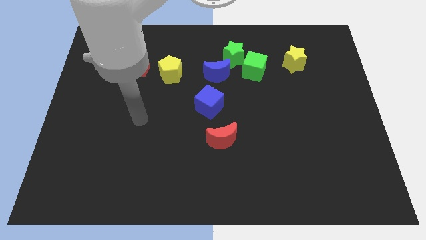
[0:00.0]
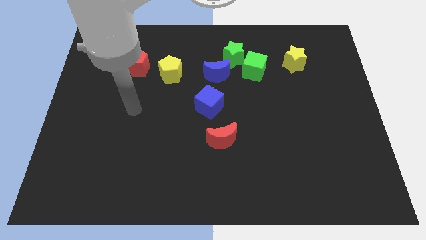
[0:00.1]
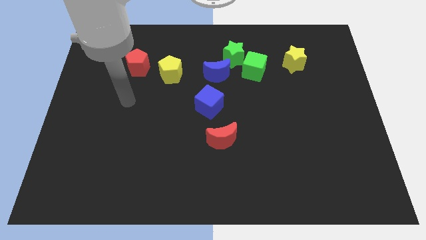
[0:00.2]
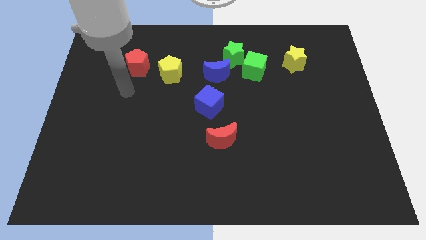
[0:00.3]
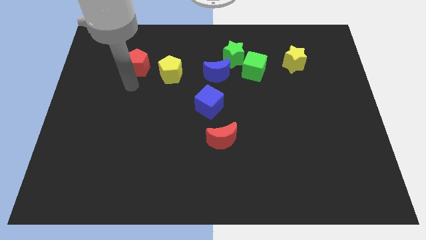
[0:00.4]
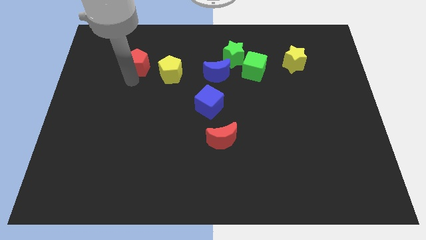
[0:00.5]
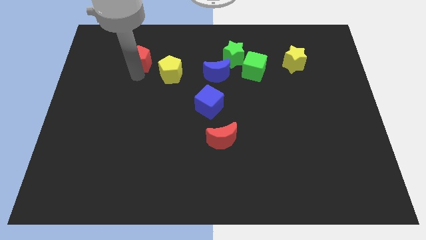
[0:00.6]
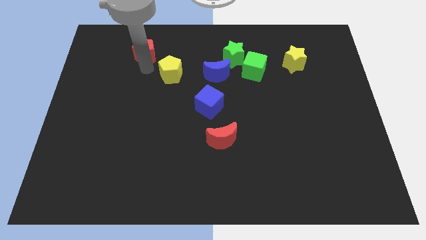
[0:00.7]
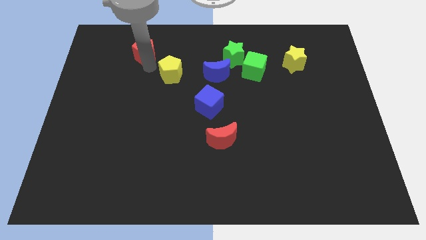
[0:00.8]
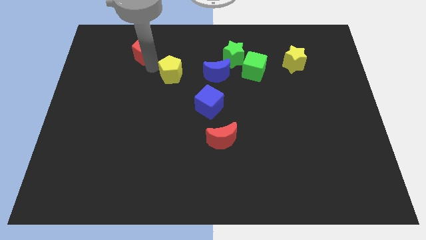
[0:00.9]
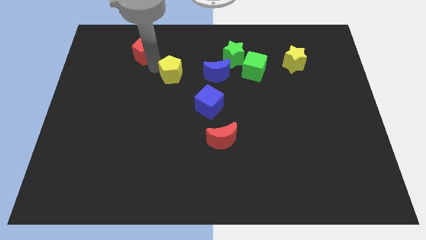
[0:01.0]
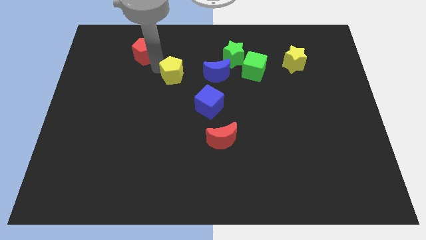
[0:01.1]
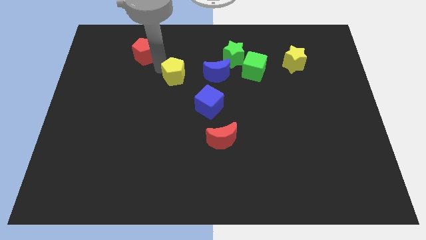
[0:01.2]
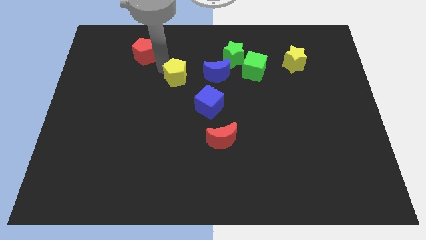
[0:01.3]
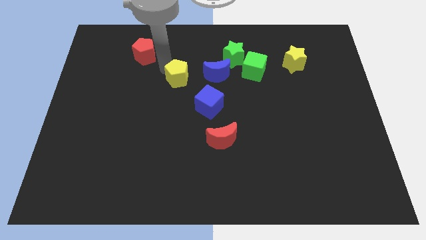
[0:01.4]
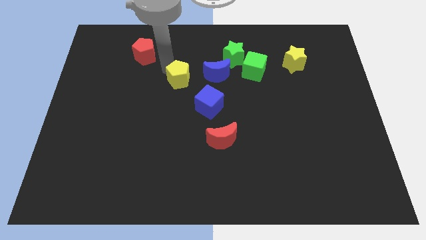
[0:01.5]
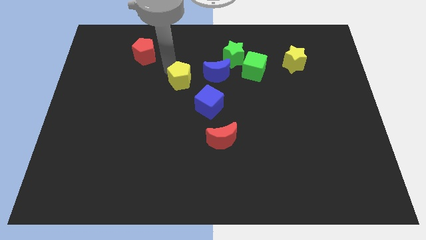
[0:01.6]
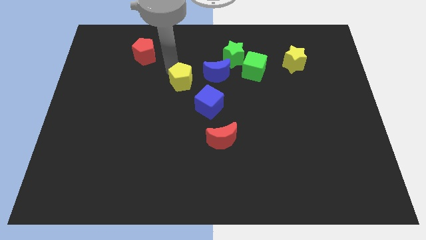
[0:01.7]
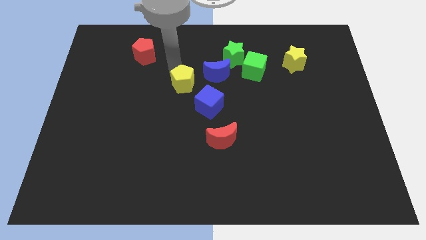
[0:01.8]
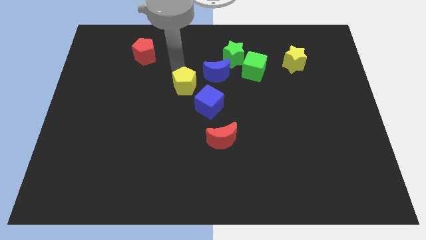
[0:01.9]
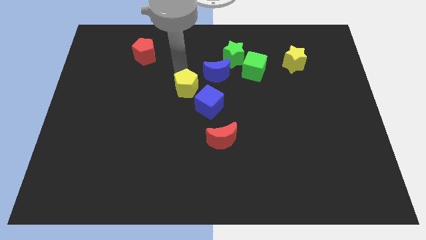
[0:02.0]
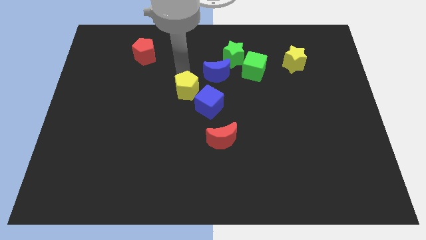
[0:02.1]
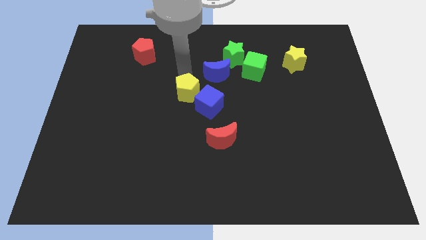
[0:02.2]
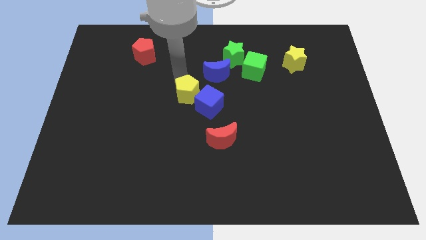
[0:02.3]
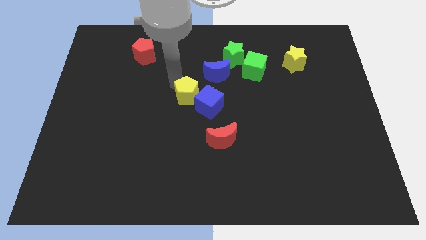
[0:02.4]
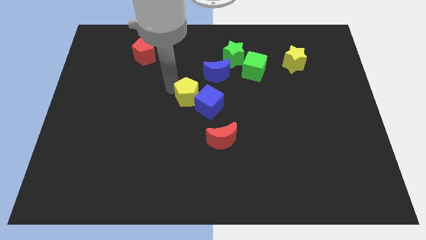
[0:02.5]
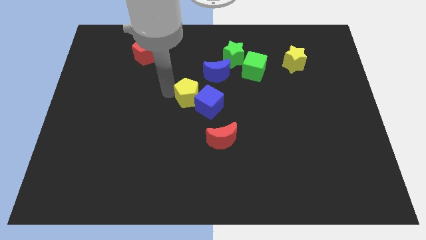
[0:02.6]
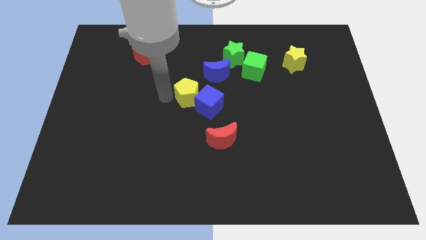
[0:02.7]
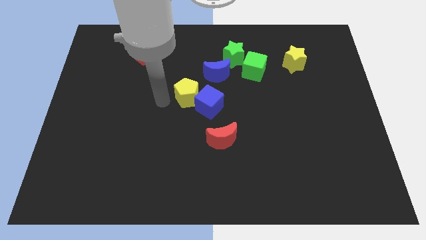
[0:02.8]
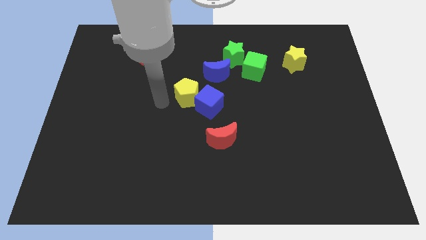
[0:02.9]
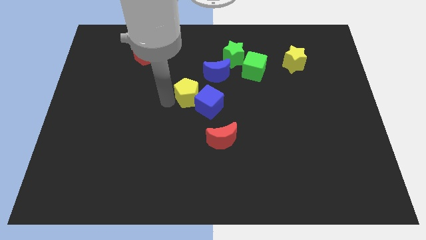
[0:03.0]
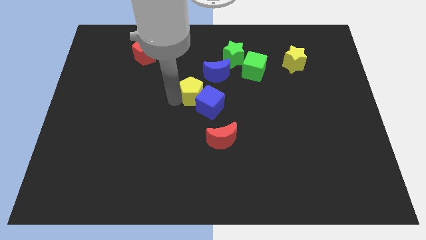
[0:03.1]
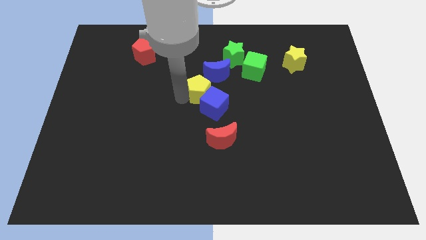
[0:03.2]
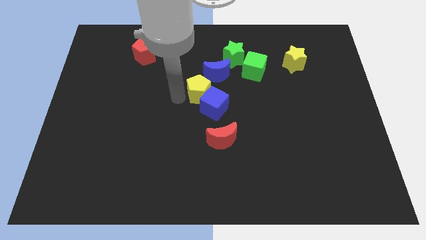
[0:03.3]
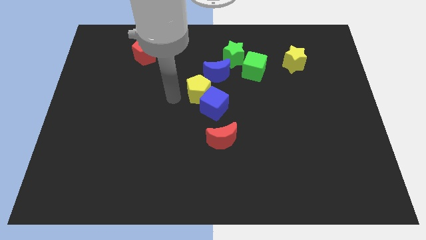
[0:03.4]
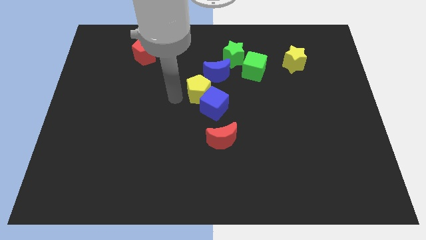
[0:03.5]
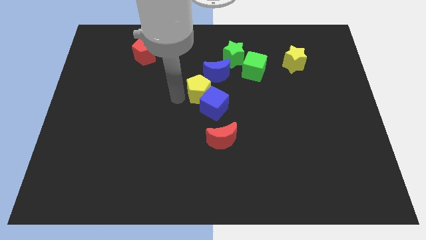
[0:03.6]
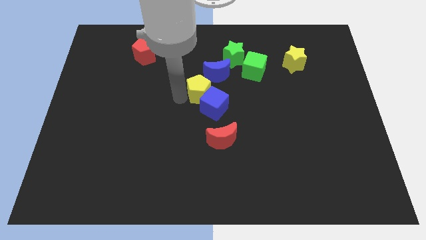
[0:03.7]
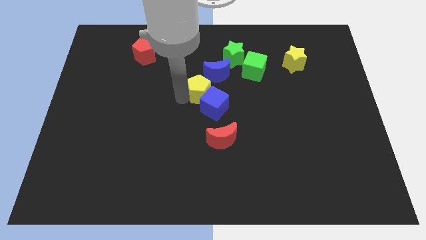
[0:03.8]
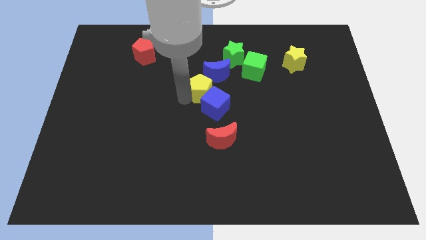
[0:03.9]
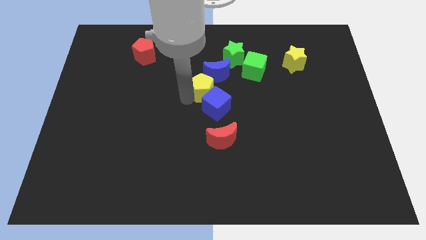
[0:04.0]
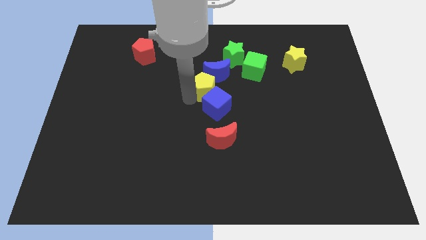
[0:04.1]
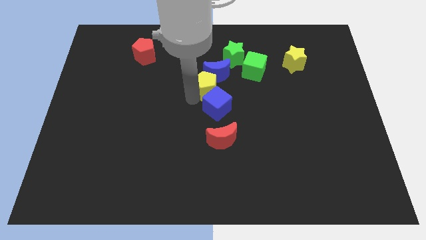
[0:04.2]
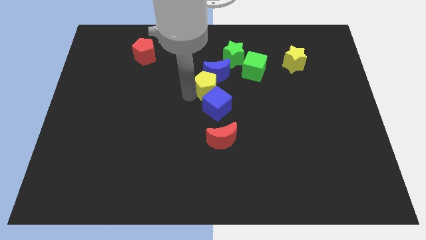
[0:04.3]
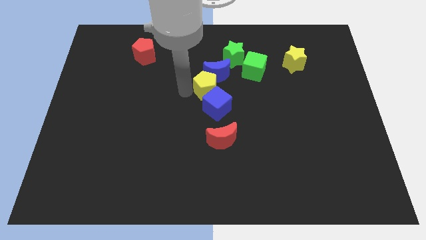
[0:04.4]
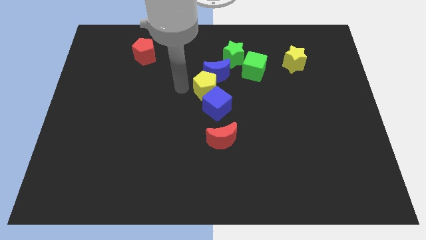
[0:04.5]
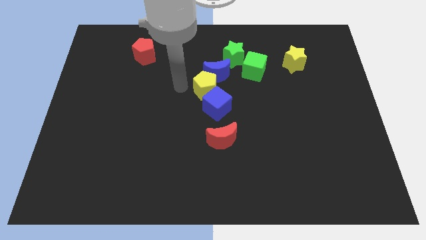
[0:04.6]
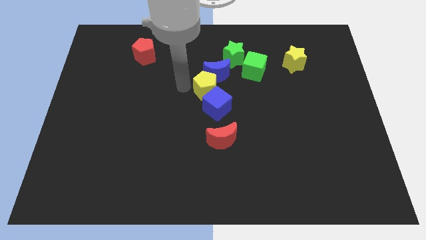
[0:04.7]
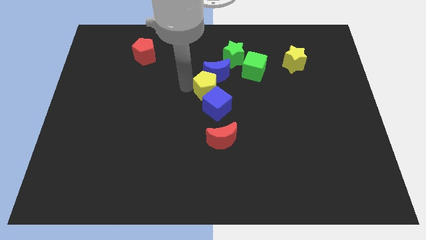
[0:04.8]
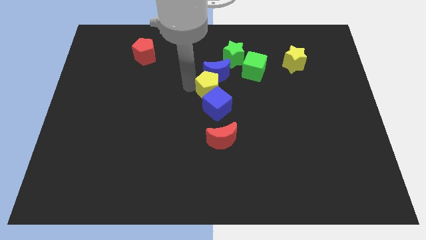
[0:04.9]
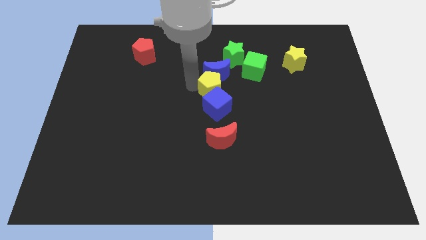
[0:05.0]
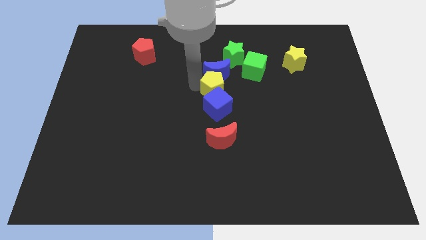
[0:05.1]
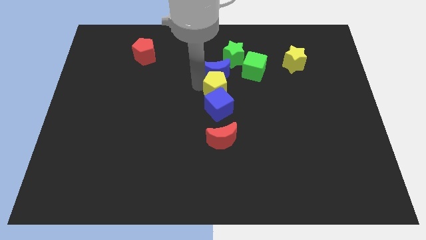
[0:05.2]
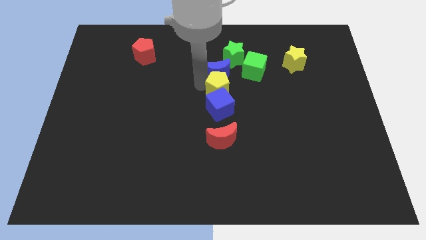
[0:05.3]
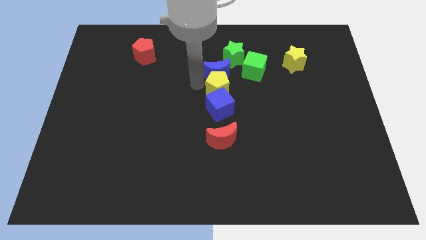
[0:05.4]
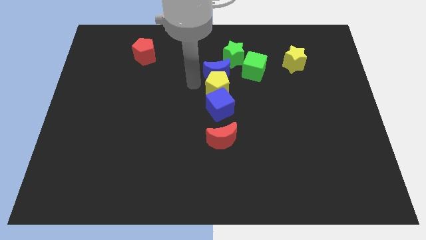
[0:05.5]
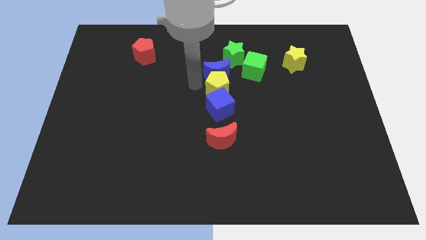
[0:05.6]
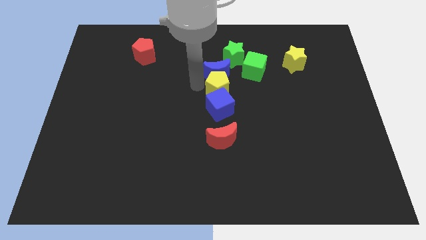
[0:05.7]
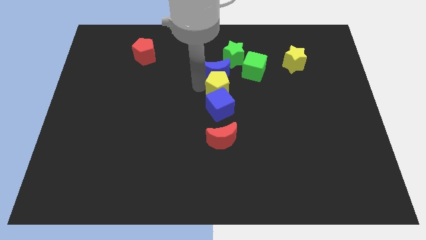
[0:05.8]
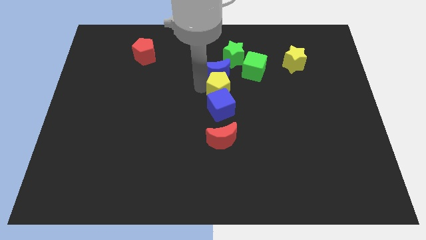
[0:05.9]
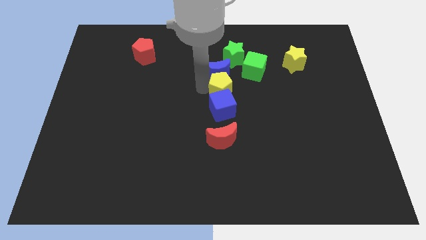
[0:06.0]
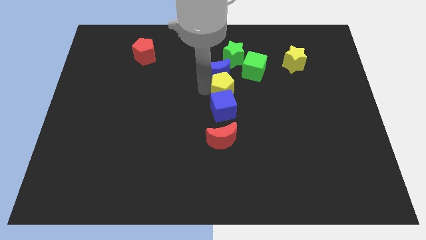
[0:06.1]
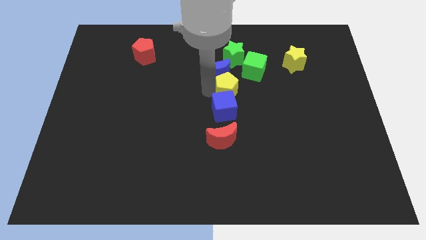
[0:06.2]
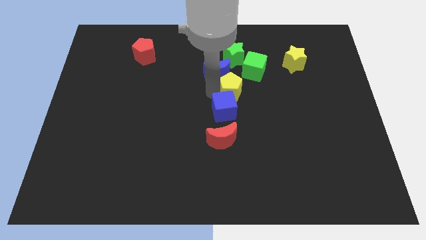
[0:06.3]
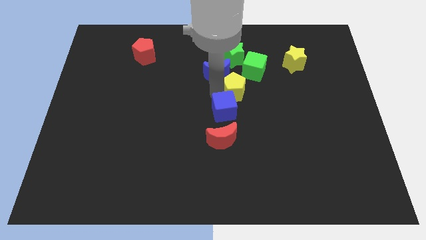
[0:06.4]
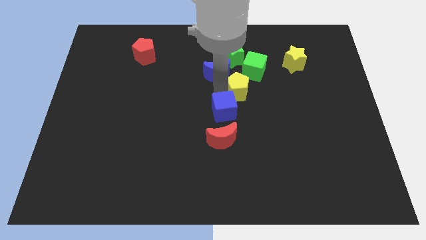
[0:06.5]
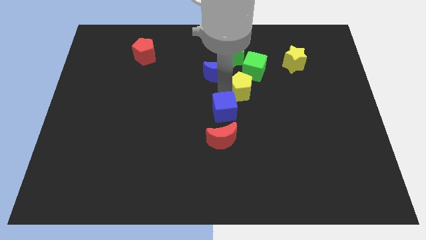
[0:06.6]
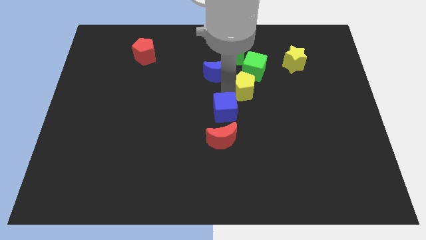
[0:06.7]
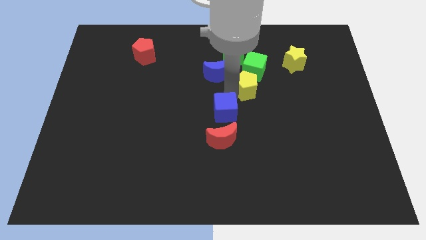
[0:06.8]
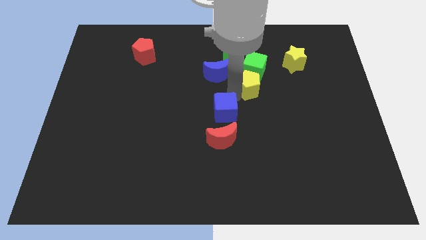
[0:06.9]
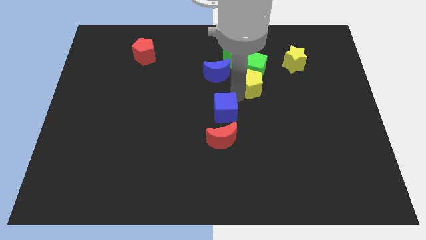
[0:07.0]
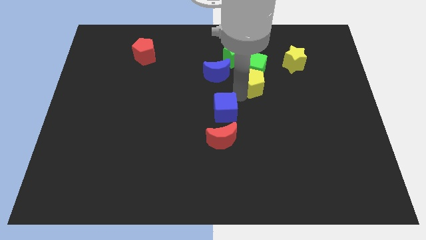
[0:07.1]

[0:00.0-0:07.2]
slide the yellow pentagon to the right

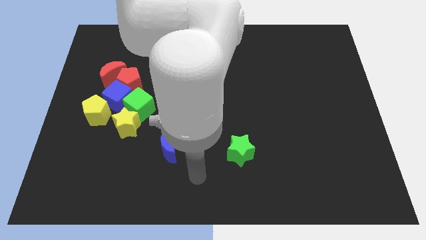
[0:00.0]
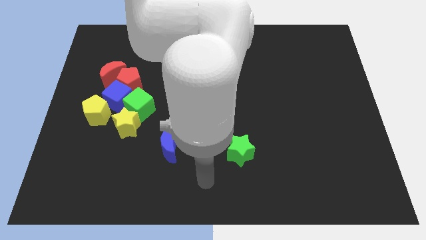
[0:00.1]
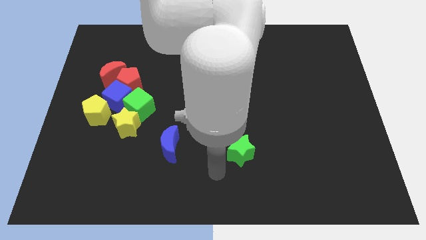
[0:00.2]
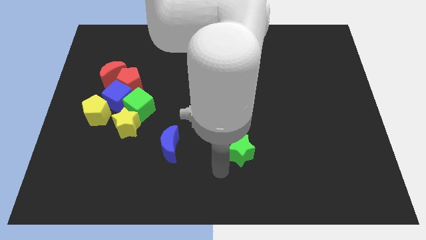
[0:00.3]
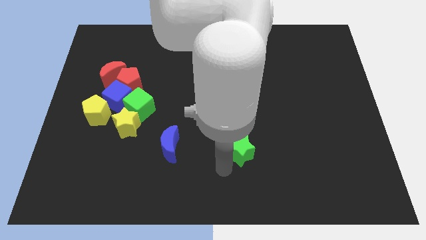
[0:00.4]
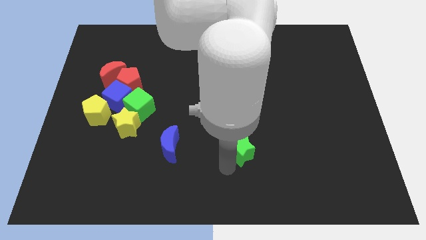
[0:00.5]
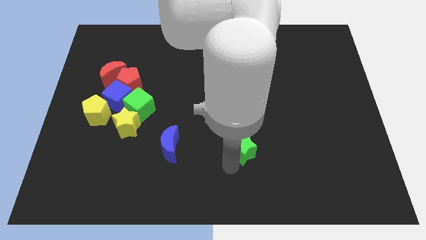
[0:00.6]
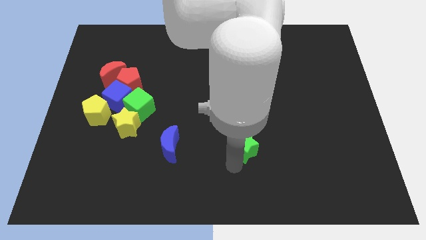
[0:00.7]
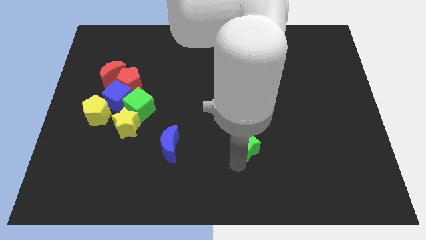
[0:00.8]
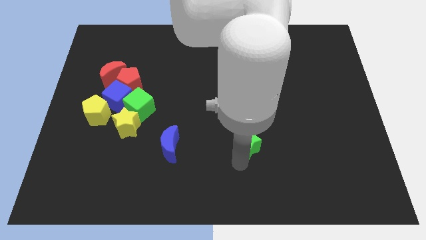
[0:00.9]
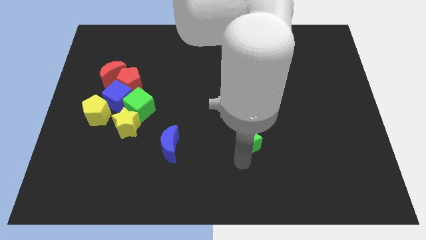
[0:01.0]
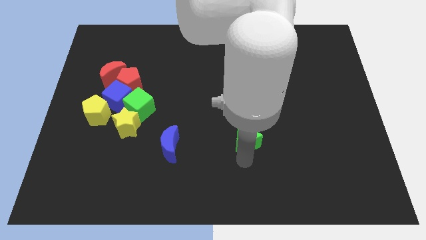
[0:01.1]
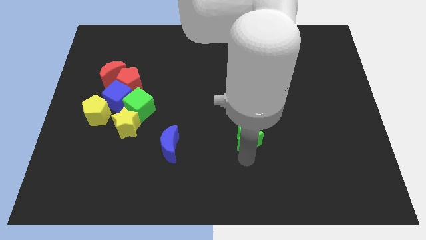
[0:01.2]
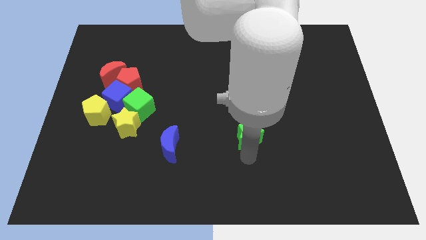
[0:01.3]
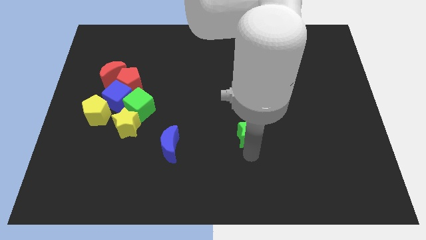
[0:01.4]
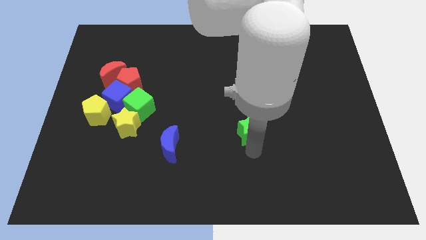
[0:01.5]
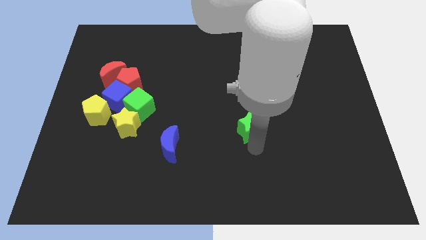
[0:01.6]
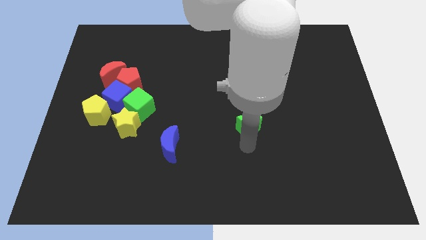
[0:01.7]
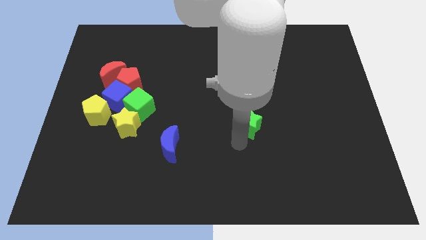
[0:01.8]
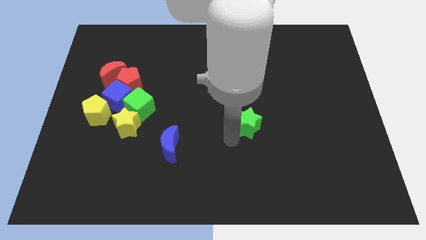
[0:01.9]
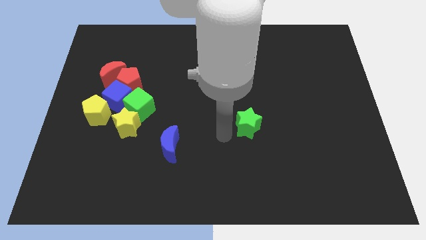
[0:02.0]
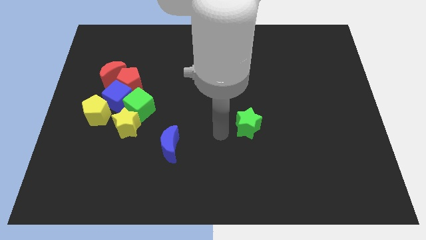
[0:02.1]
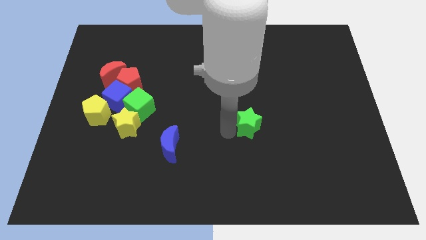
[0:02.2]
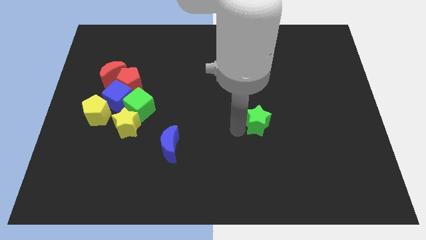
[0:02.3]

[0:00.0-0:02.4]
push the green star somewhat upwards and to the right
